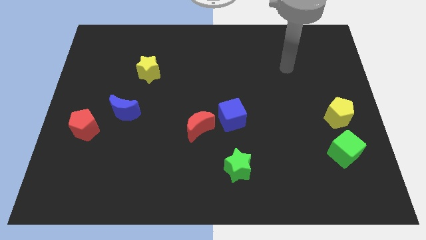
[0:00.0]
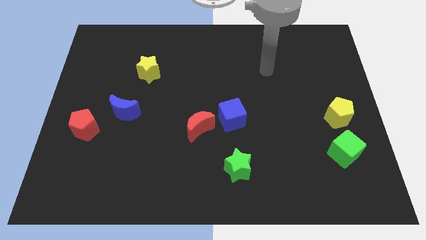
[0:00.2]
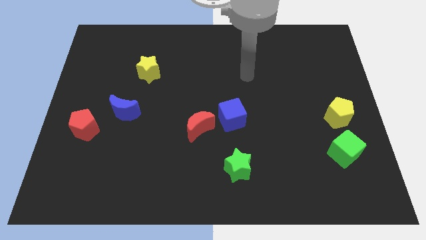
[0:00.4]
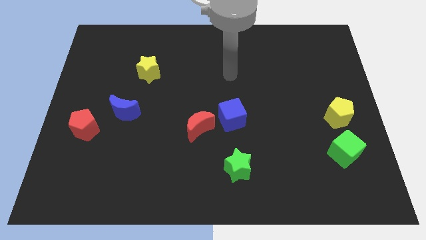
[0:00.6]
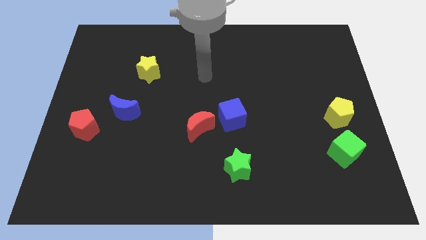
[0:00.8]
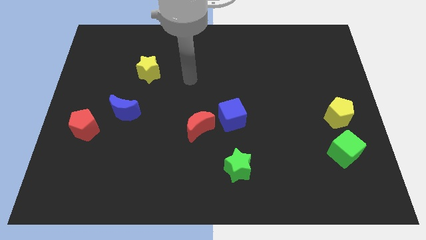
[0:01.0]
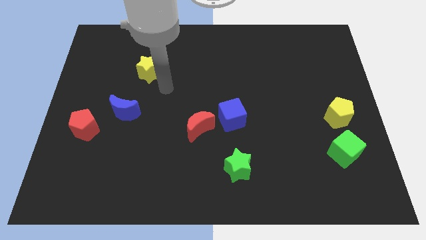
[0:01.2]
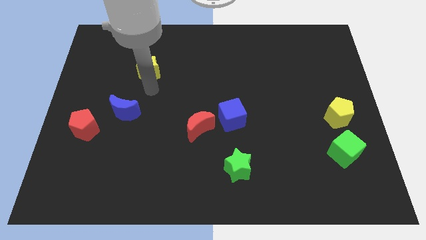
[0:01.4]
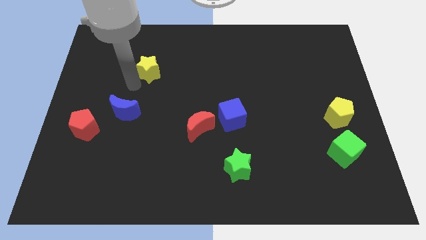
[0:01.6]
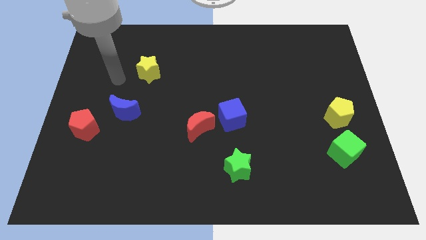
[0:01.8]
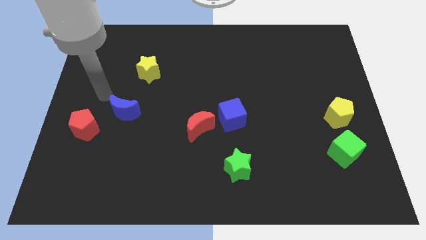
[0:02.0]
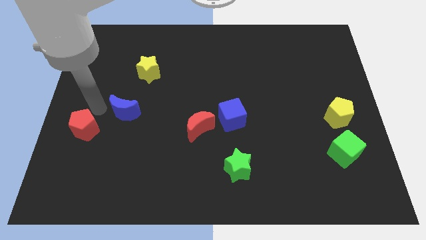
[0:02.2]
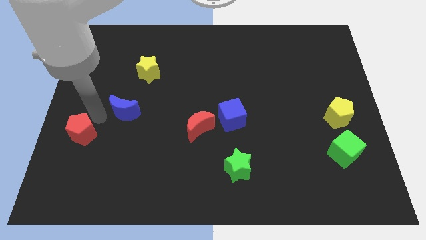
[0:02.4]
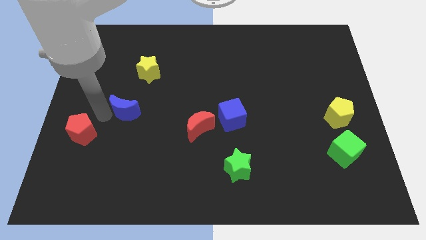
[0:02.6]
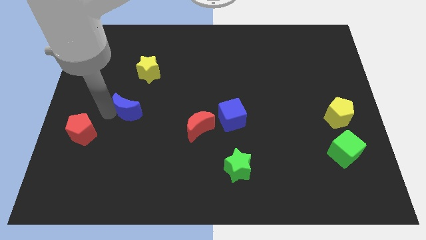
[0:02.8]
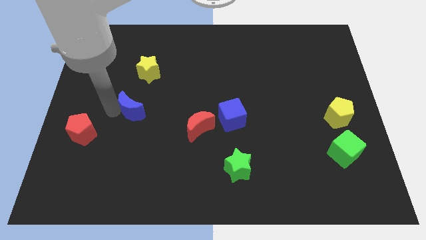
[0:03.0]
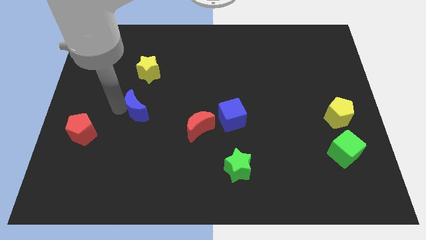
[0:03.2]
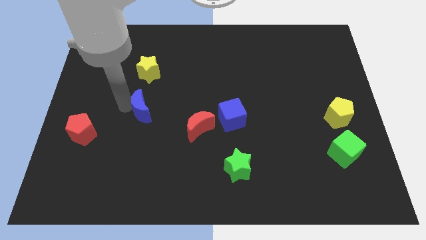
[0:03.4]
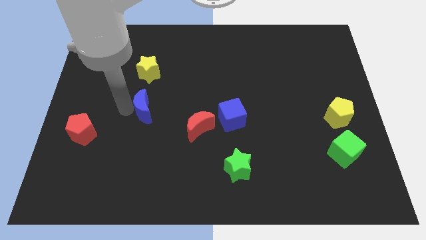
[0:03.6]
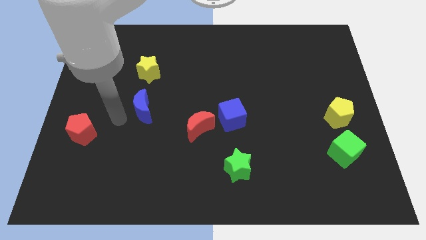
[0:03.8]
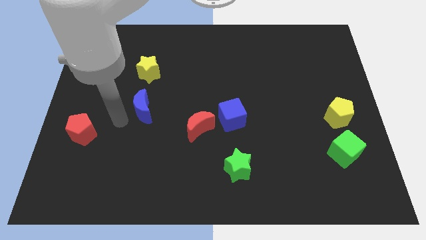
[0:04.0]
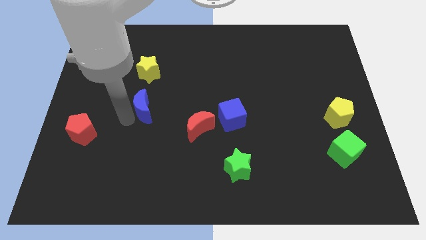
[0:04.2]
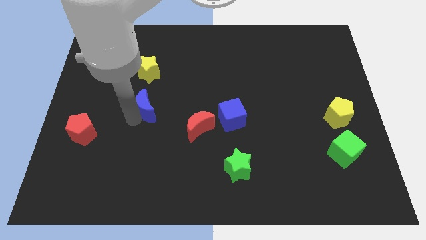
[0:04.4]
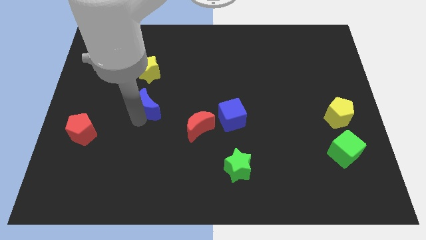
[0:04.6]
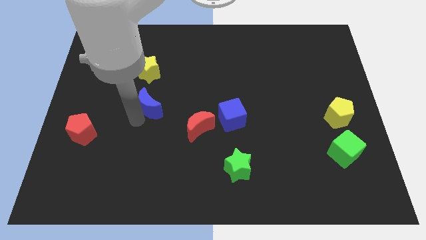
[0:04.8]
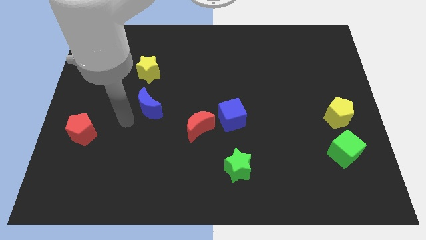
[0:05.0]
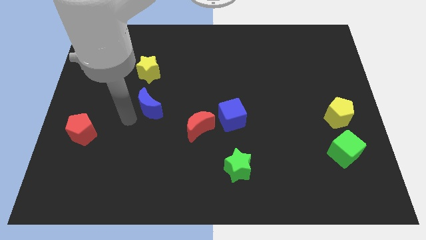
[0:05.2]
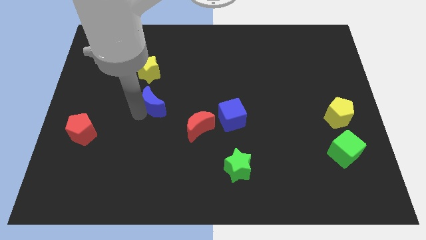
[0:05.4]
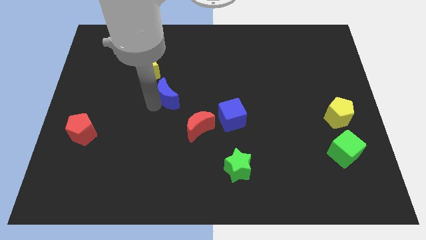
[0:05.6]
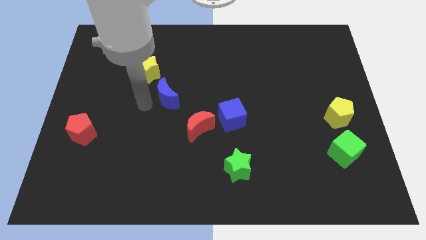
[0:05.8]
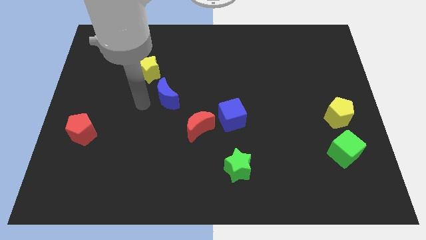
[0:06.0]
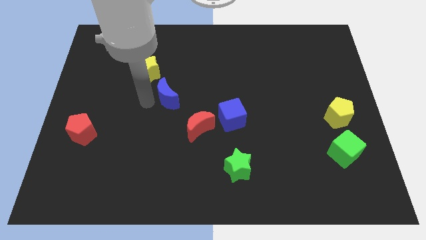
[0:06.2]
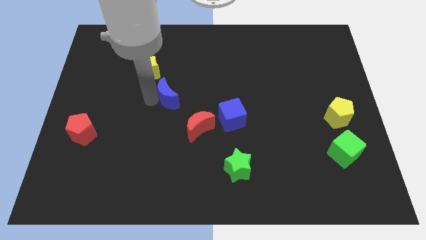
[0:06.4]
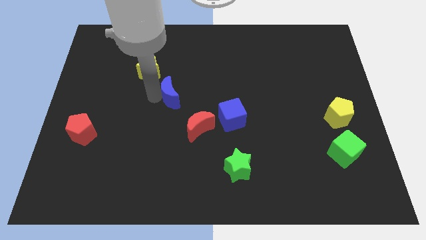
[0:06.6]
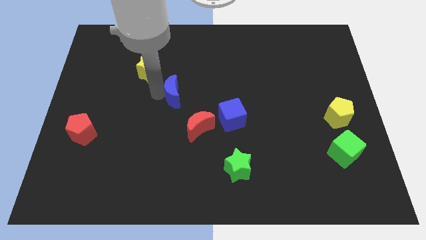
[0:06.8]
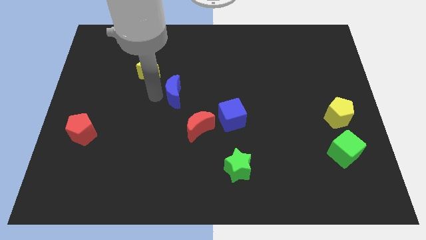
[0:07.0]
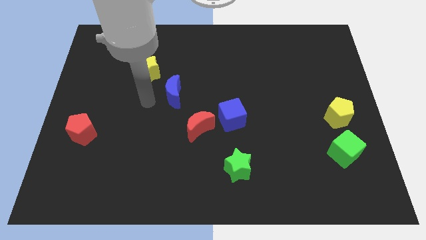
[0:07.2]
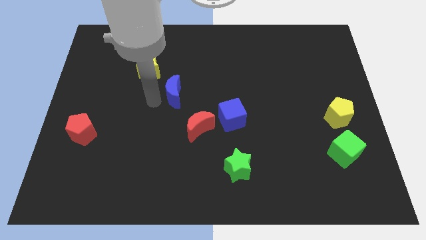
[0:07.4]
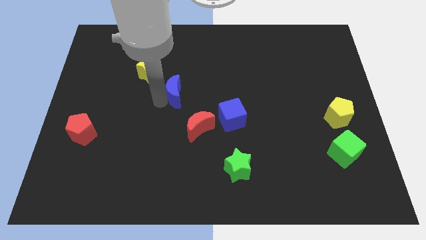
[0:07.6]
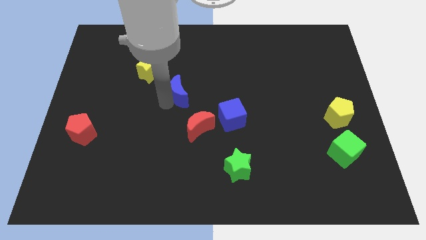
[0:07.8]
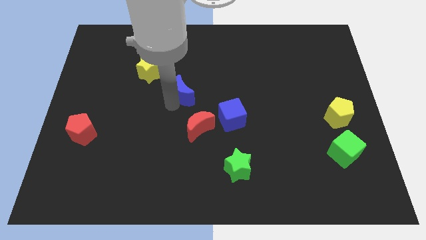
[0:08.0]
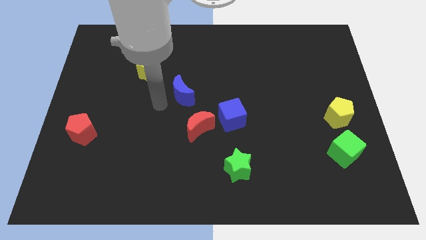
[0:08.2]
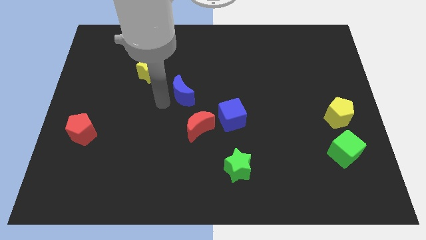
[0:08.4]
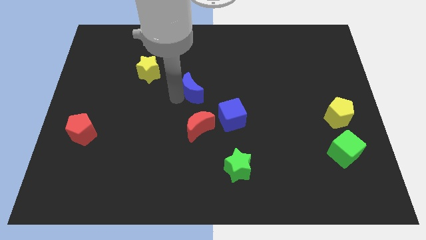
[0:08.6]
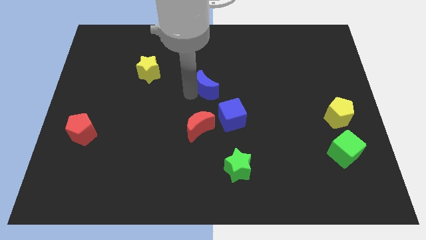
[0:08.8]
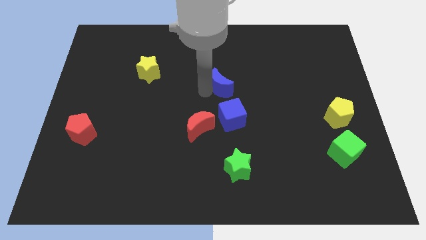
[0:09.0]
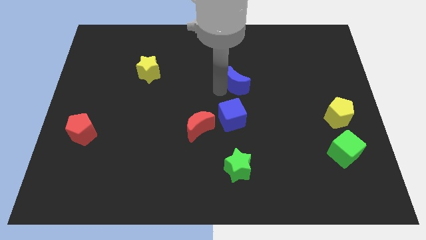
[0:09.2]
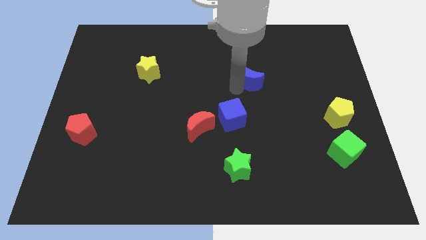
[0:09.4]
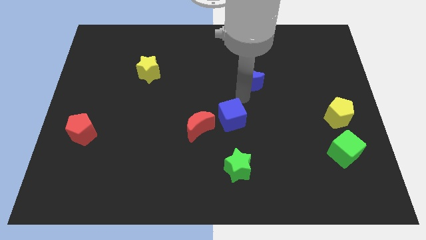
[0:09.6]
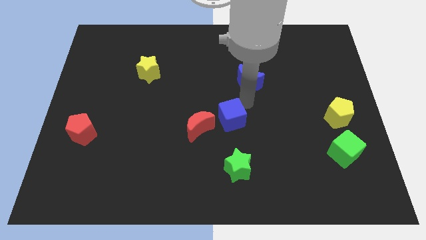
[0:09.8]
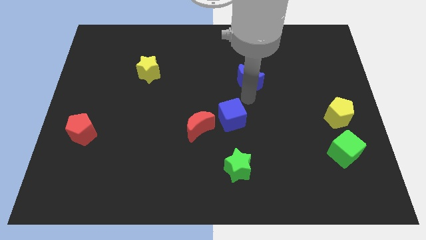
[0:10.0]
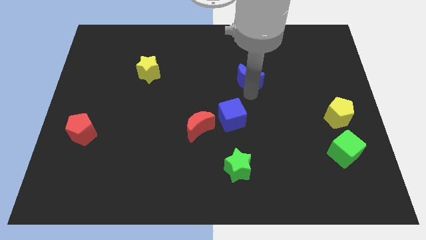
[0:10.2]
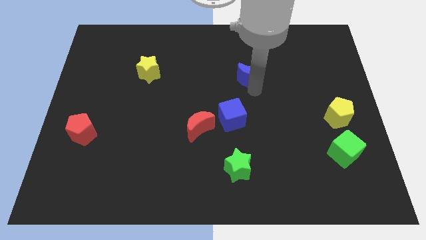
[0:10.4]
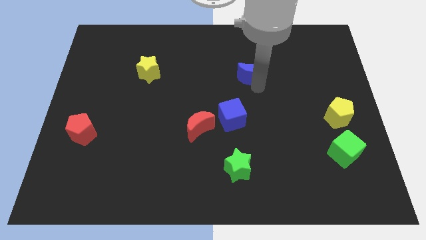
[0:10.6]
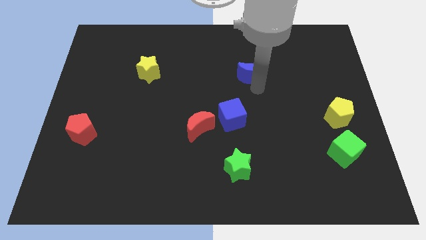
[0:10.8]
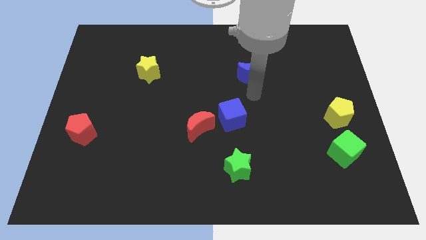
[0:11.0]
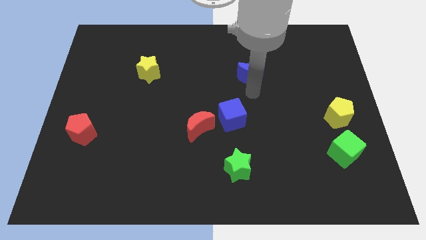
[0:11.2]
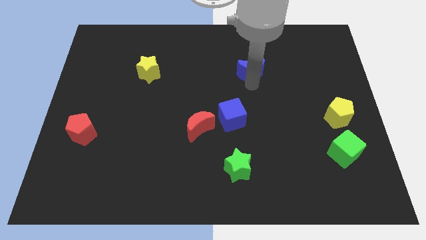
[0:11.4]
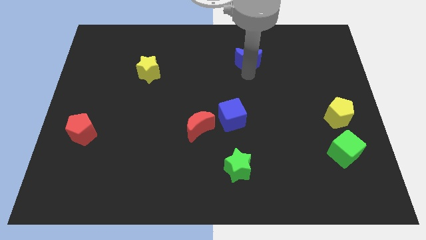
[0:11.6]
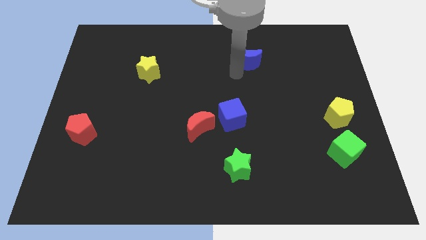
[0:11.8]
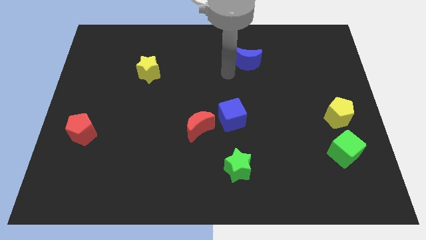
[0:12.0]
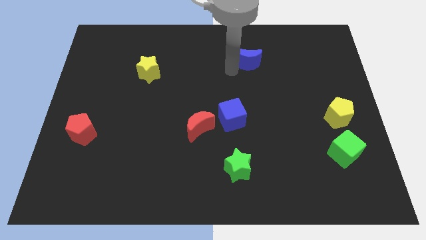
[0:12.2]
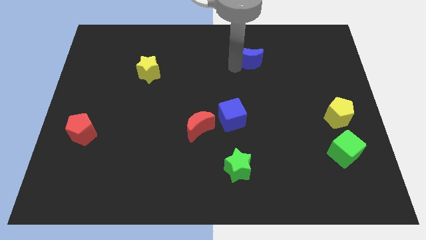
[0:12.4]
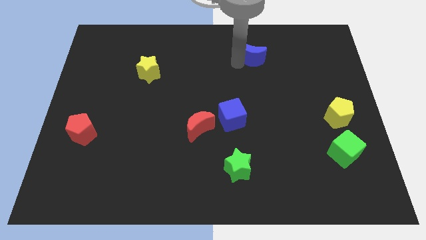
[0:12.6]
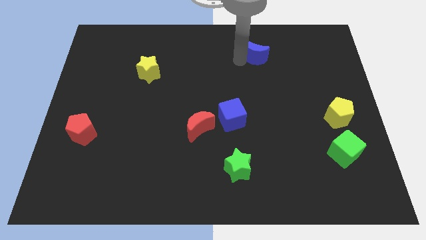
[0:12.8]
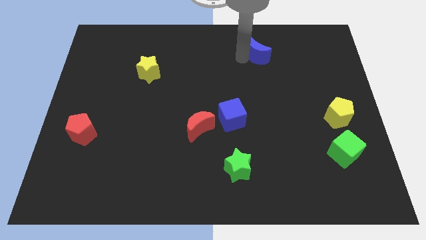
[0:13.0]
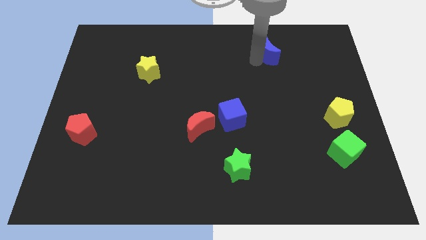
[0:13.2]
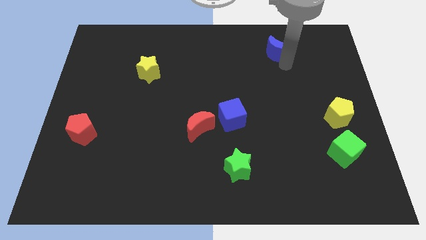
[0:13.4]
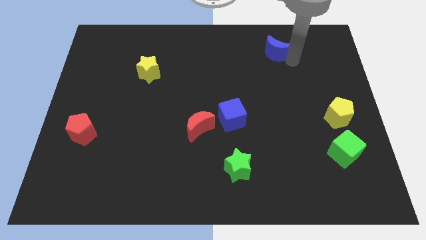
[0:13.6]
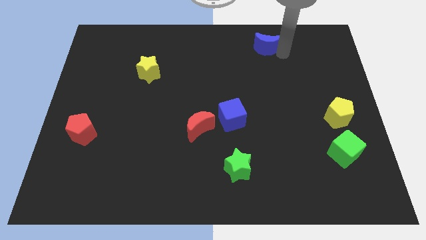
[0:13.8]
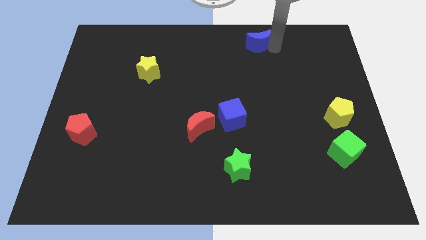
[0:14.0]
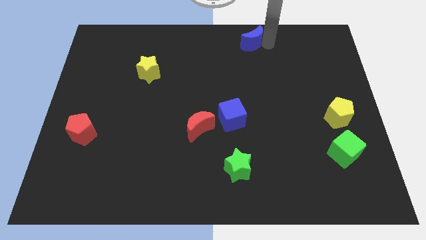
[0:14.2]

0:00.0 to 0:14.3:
push the blue moon to the top side
